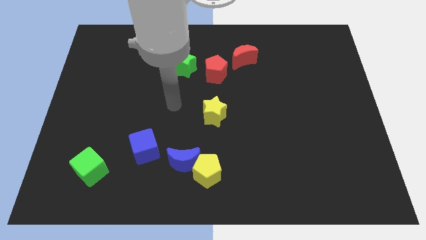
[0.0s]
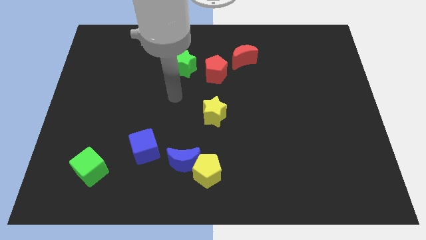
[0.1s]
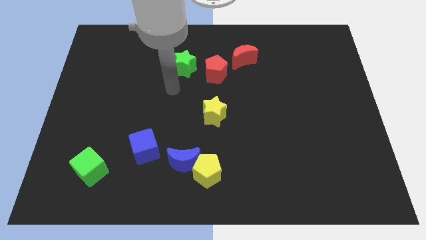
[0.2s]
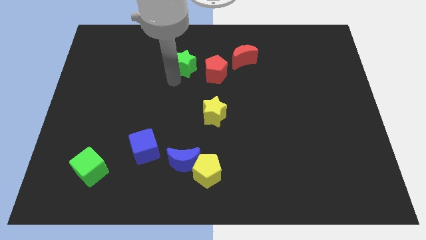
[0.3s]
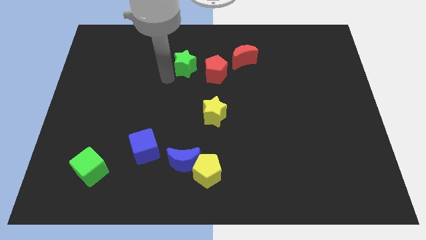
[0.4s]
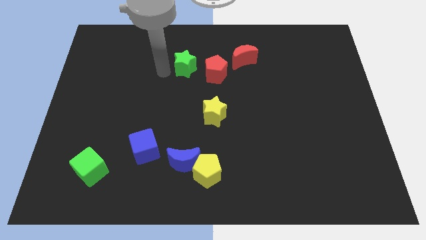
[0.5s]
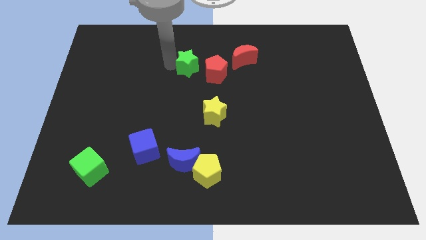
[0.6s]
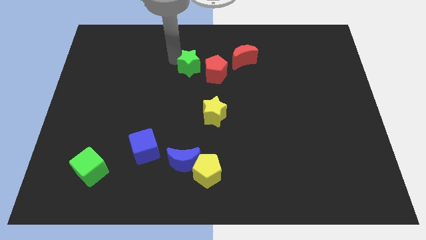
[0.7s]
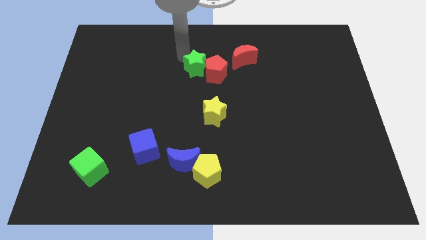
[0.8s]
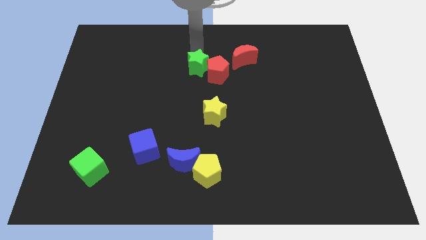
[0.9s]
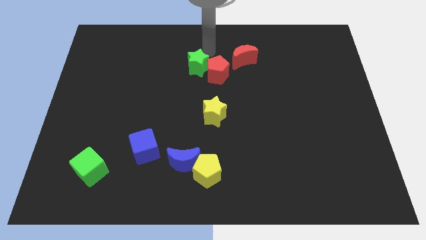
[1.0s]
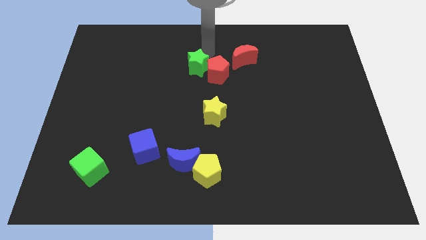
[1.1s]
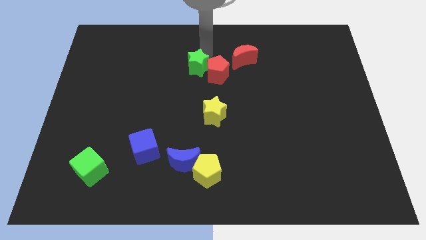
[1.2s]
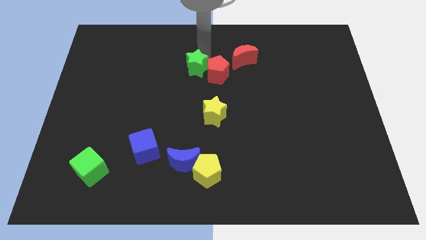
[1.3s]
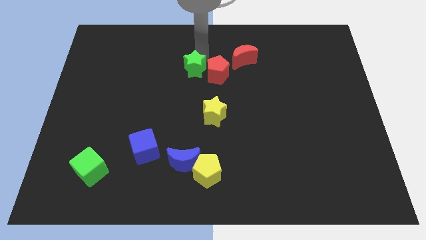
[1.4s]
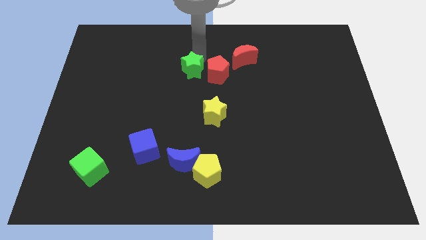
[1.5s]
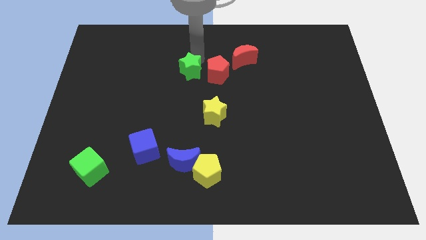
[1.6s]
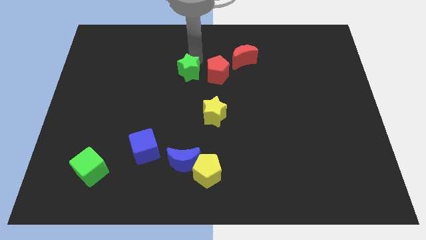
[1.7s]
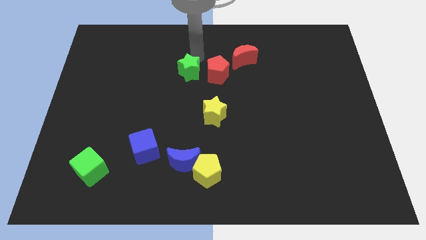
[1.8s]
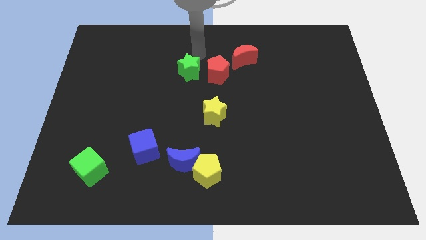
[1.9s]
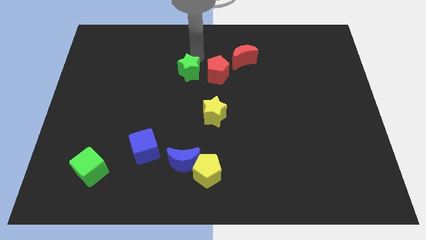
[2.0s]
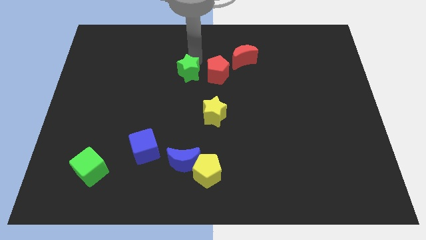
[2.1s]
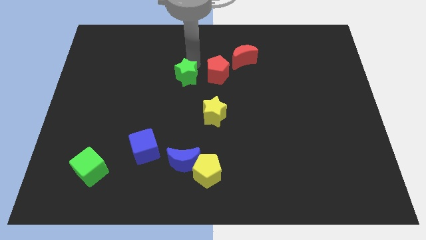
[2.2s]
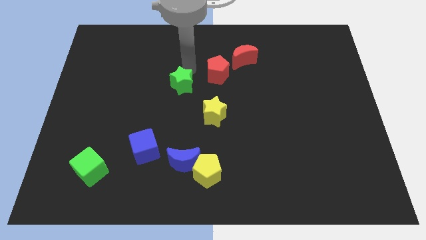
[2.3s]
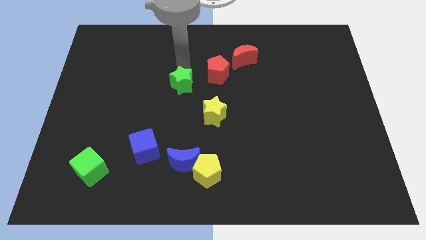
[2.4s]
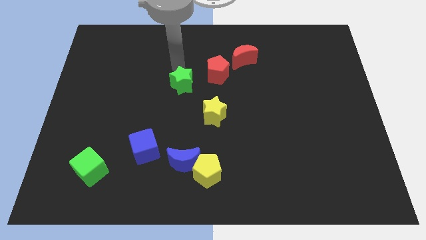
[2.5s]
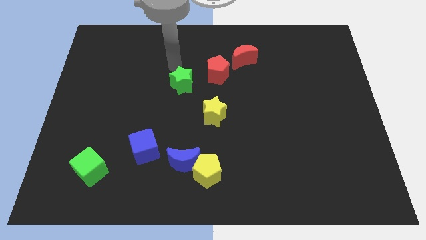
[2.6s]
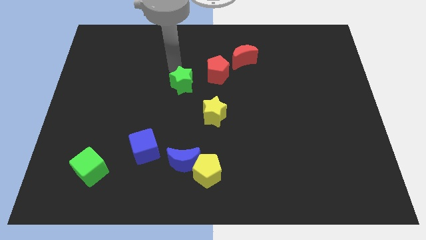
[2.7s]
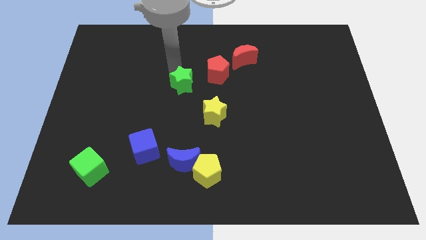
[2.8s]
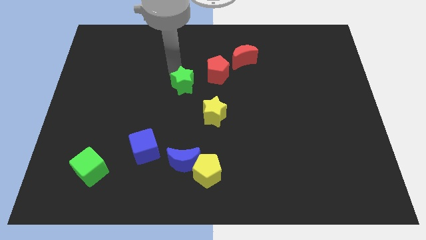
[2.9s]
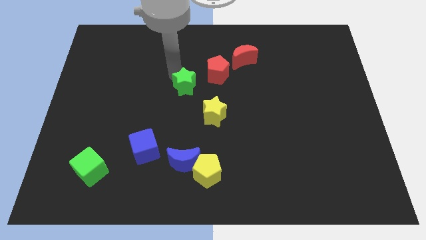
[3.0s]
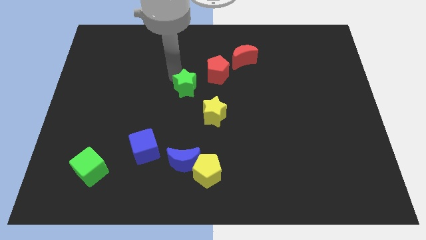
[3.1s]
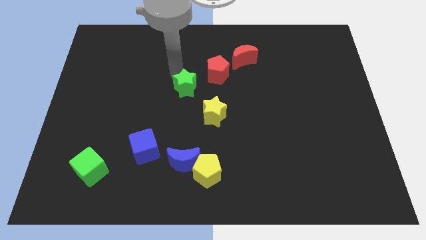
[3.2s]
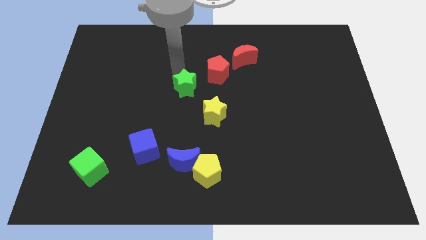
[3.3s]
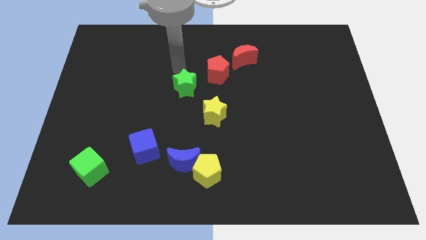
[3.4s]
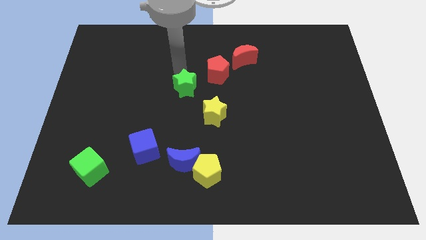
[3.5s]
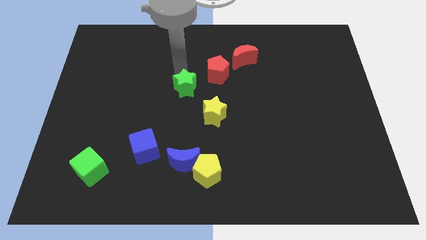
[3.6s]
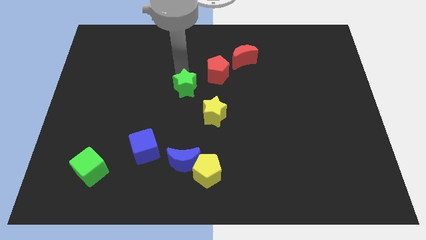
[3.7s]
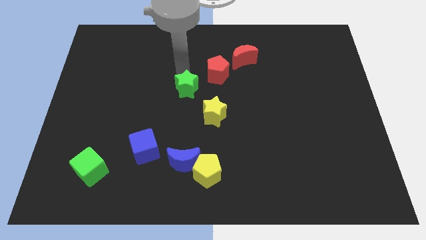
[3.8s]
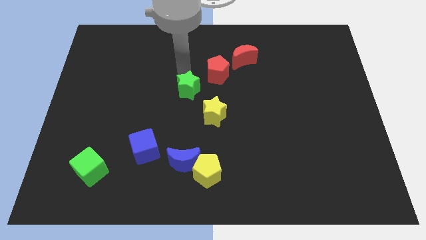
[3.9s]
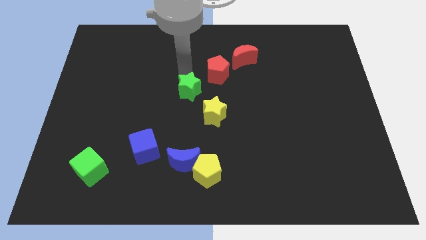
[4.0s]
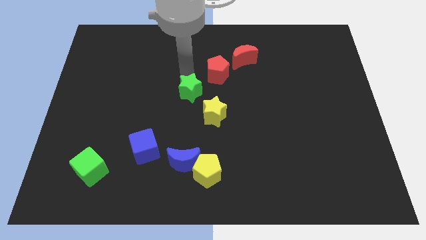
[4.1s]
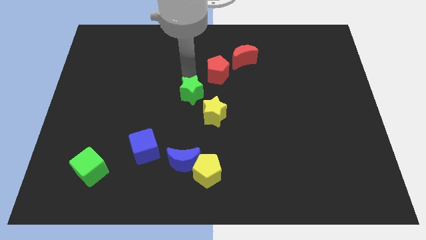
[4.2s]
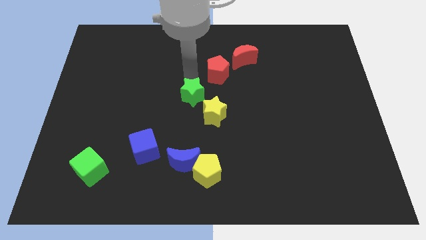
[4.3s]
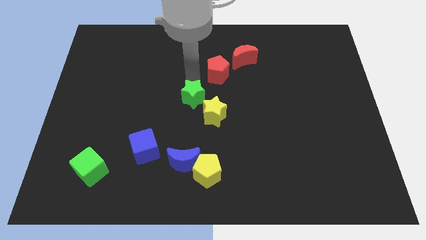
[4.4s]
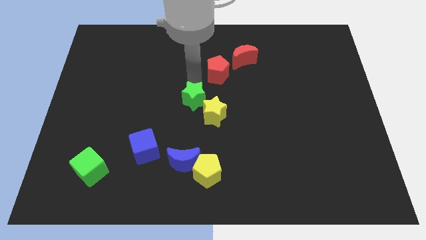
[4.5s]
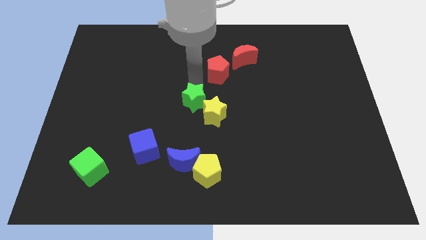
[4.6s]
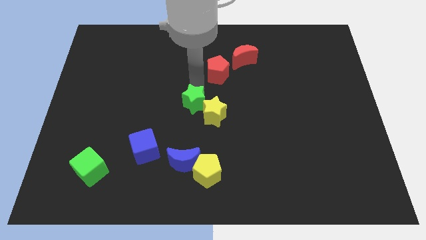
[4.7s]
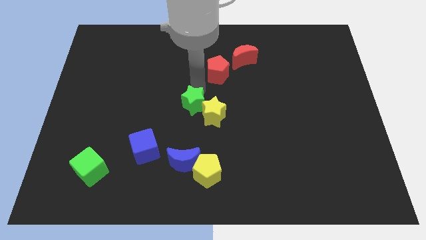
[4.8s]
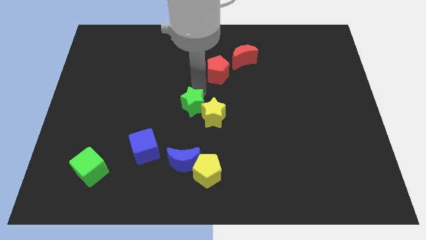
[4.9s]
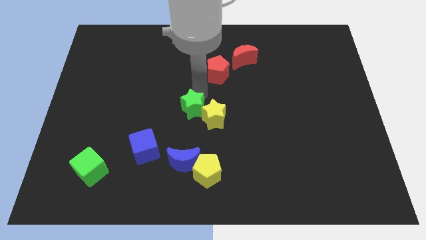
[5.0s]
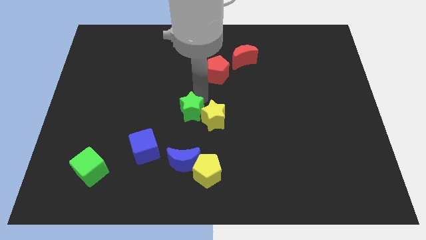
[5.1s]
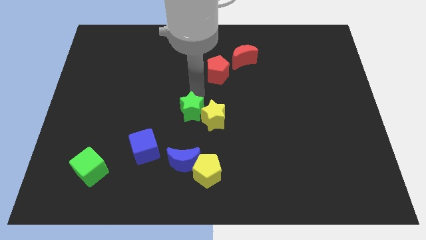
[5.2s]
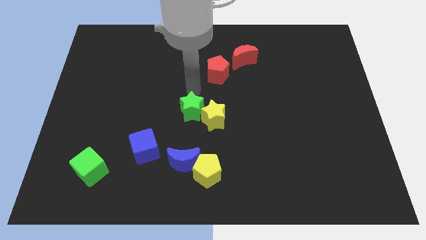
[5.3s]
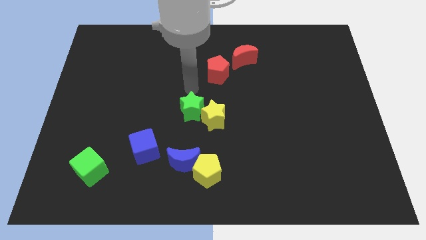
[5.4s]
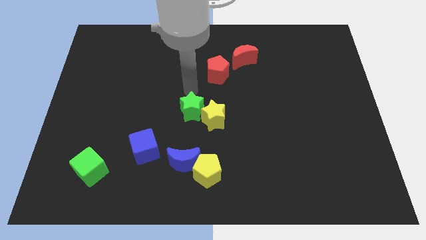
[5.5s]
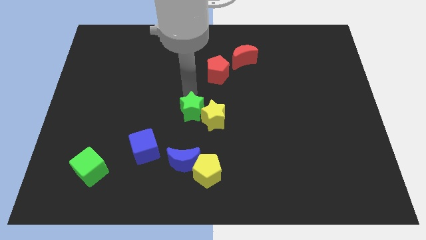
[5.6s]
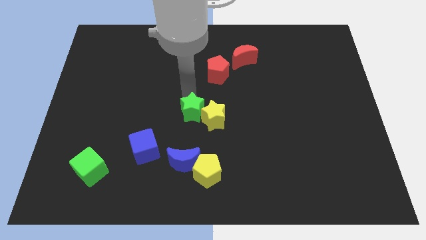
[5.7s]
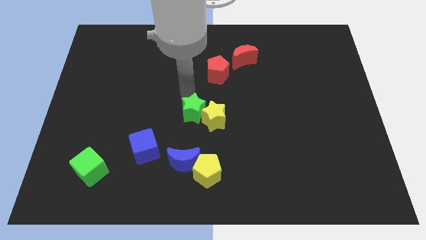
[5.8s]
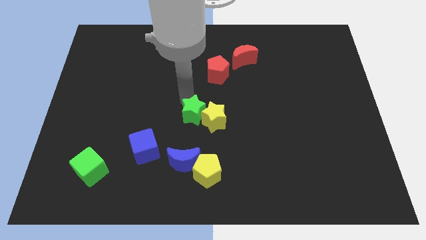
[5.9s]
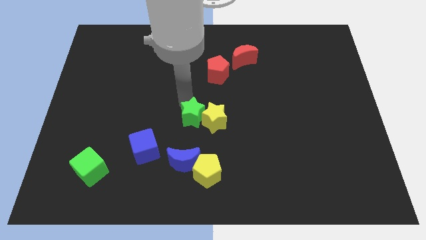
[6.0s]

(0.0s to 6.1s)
move the green star to the bottom left side of the yellow star

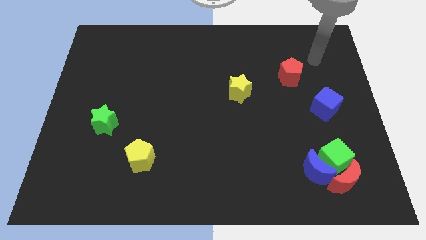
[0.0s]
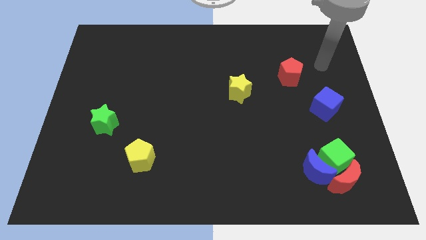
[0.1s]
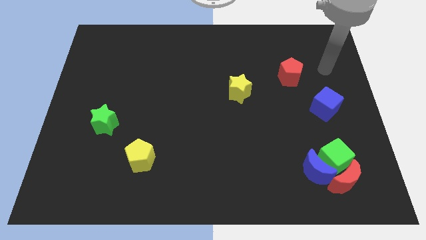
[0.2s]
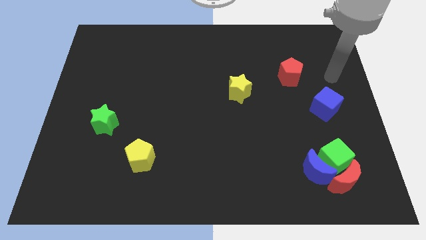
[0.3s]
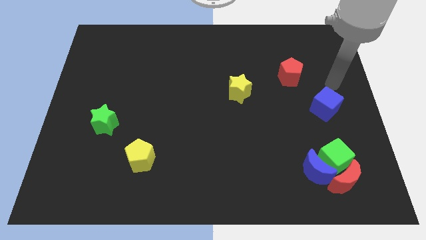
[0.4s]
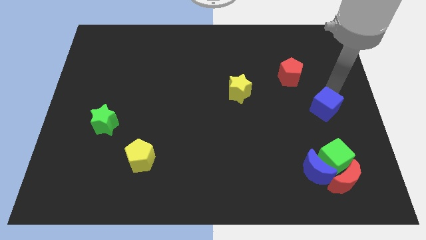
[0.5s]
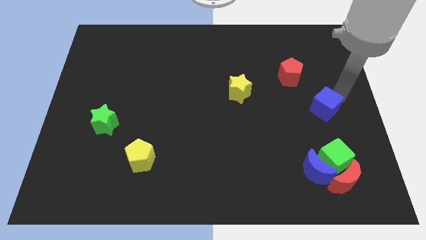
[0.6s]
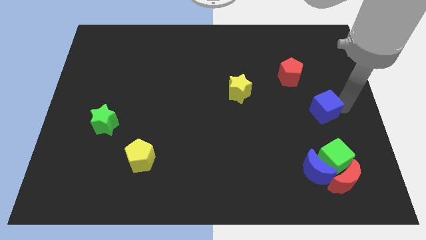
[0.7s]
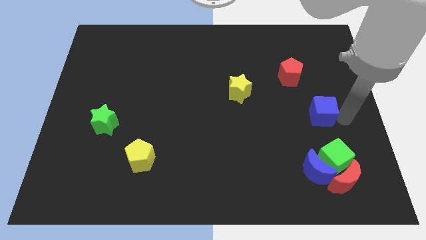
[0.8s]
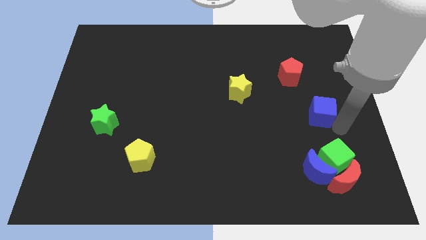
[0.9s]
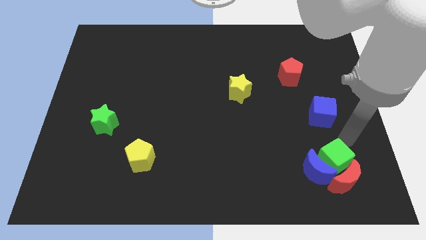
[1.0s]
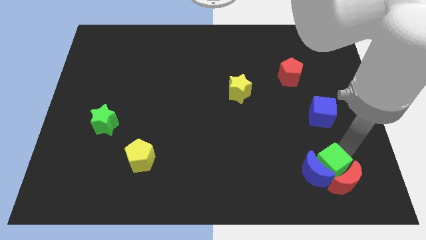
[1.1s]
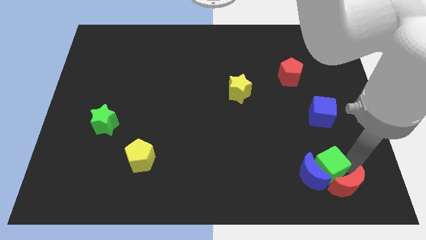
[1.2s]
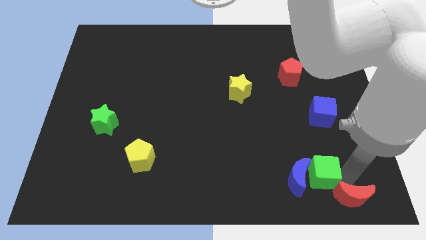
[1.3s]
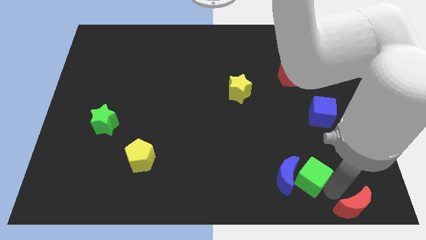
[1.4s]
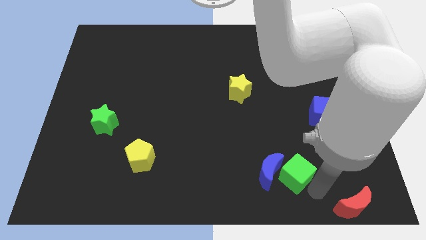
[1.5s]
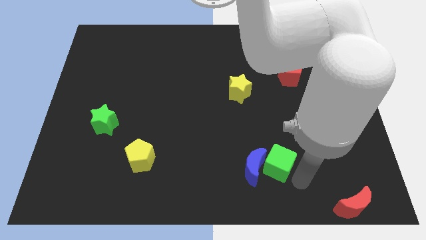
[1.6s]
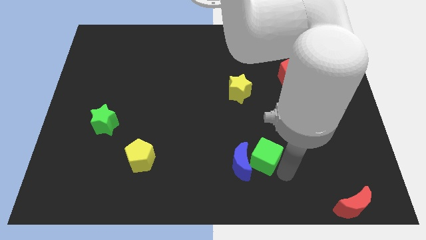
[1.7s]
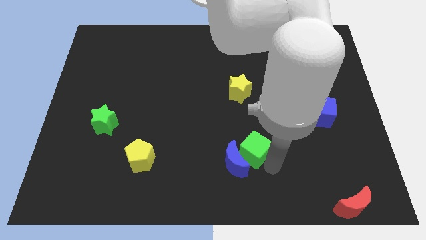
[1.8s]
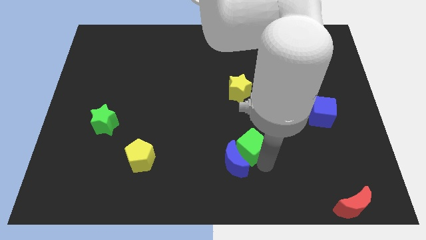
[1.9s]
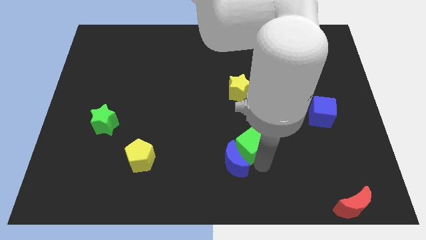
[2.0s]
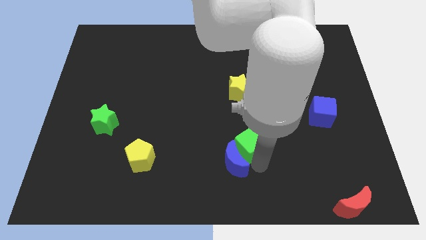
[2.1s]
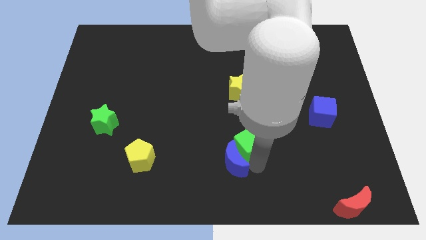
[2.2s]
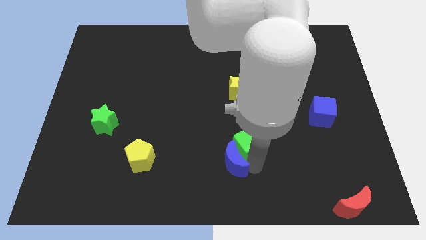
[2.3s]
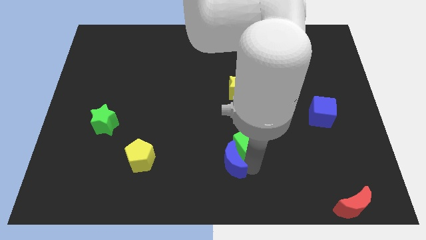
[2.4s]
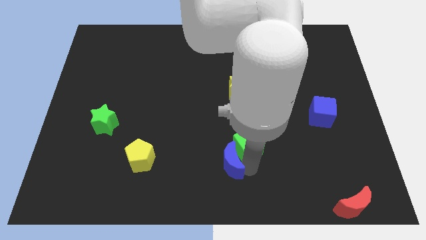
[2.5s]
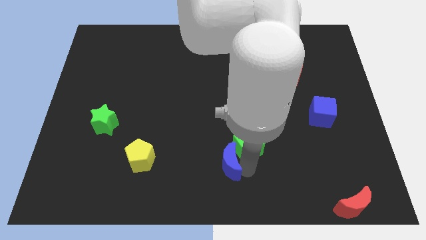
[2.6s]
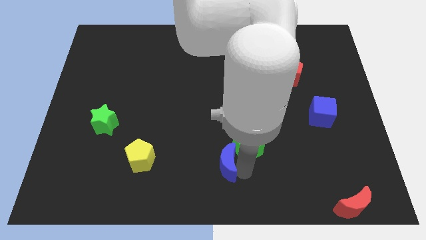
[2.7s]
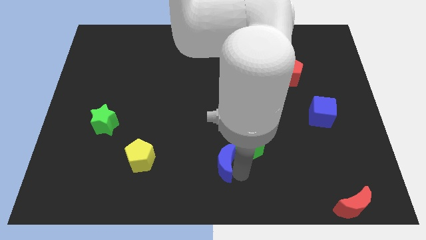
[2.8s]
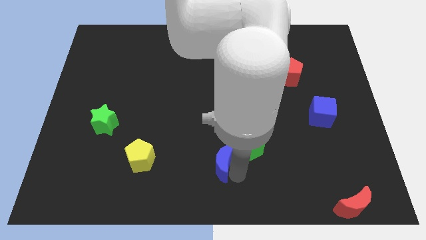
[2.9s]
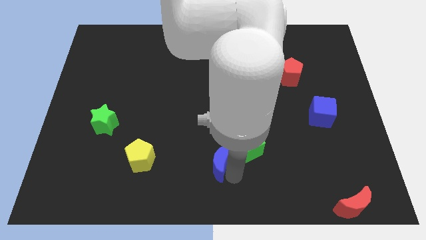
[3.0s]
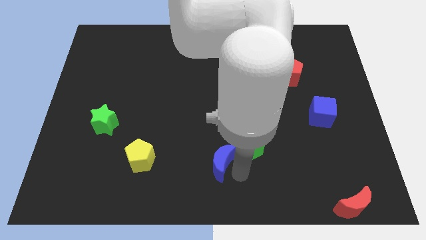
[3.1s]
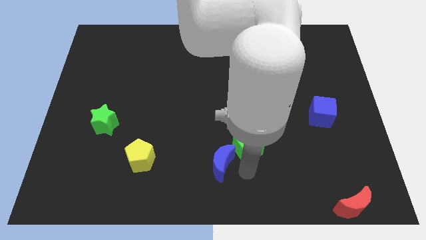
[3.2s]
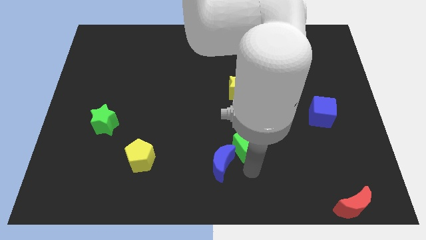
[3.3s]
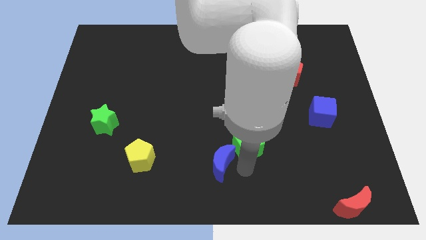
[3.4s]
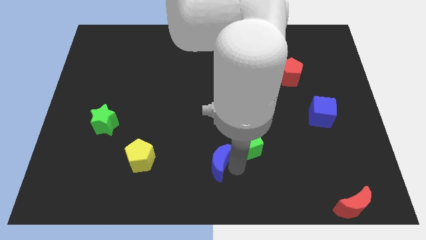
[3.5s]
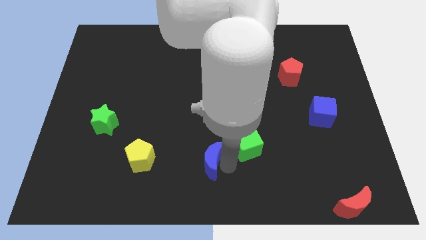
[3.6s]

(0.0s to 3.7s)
push the blue moon to the right side of the yellow pentagon
